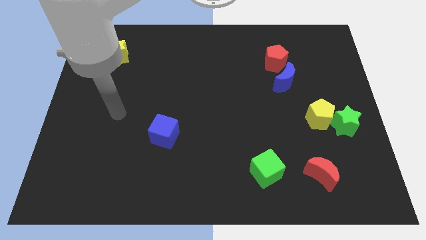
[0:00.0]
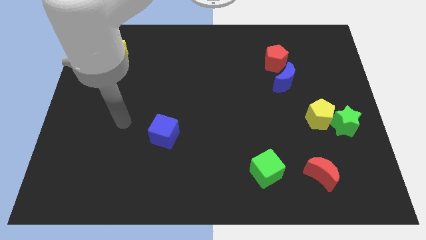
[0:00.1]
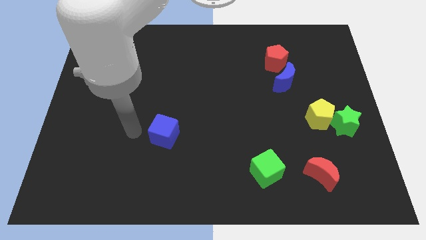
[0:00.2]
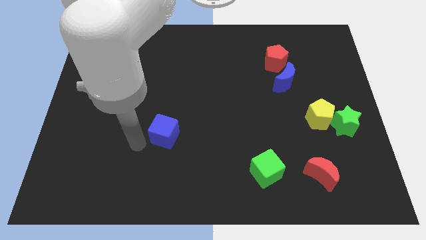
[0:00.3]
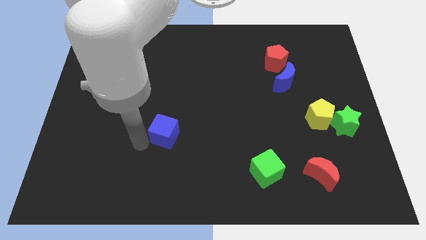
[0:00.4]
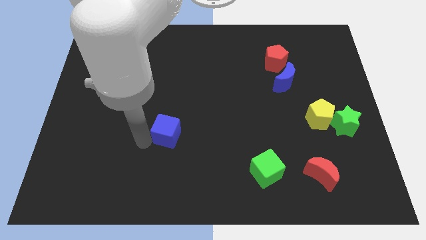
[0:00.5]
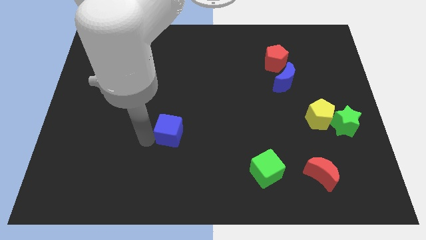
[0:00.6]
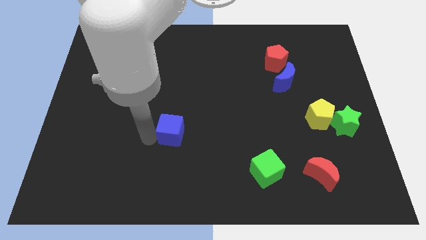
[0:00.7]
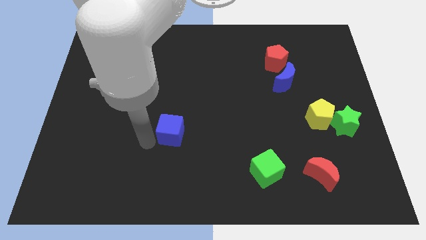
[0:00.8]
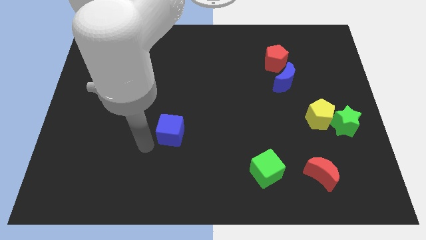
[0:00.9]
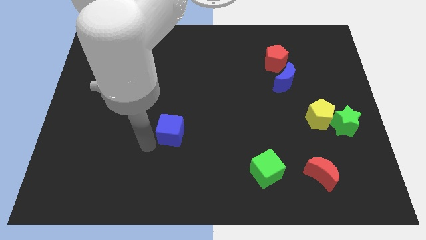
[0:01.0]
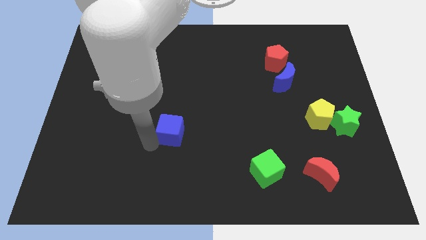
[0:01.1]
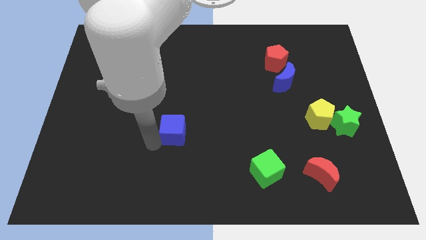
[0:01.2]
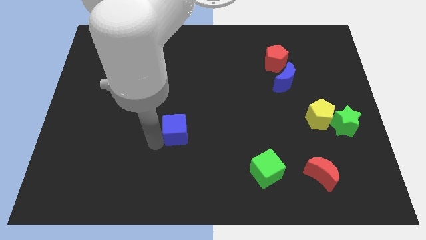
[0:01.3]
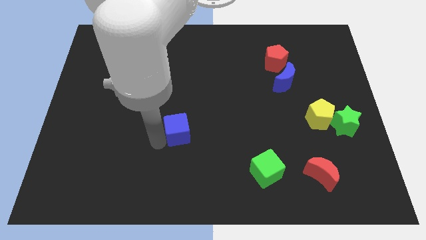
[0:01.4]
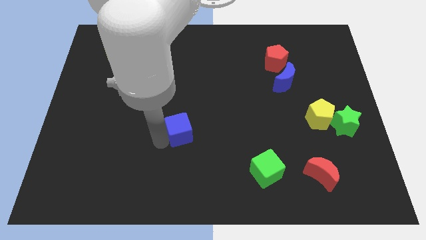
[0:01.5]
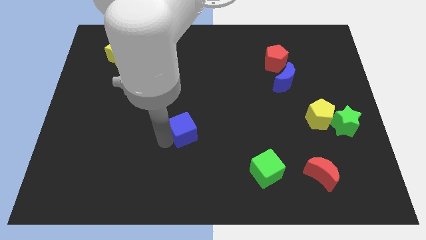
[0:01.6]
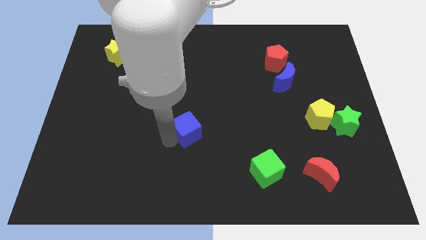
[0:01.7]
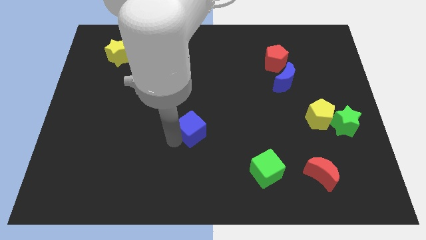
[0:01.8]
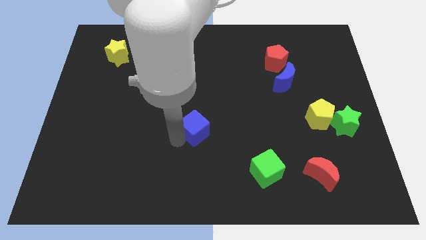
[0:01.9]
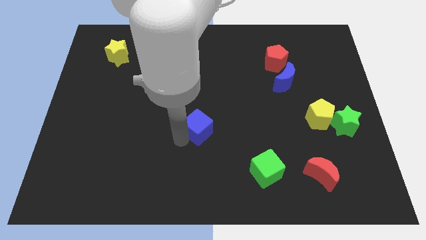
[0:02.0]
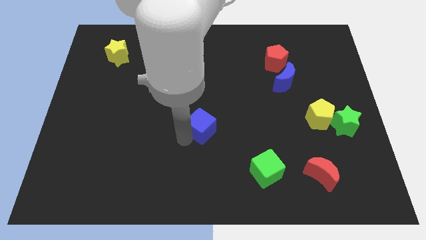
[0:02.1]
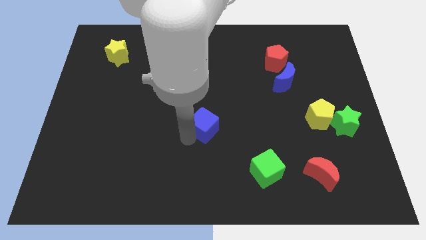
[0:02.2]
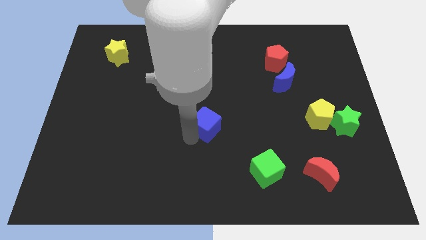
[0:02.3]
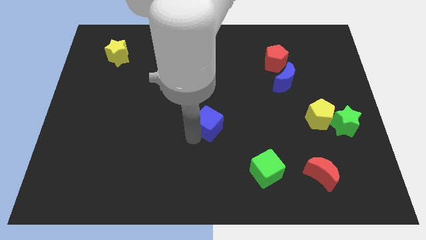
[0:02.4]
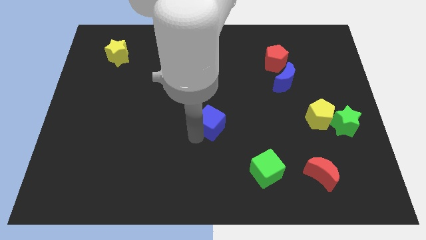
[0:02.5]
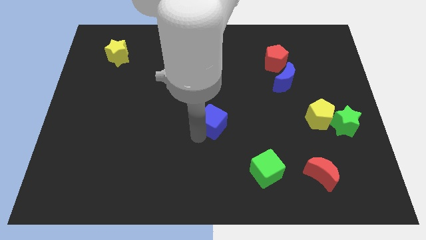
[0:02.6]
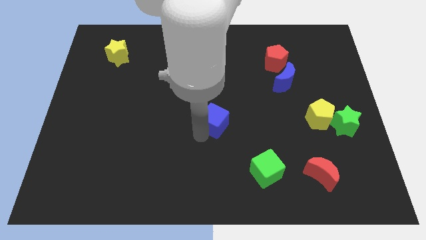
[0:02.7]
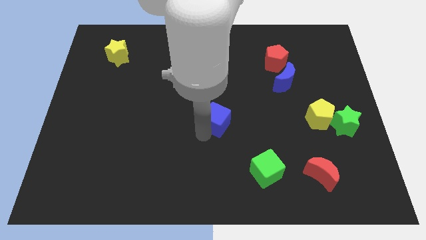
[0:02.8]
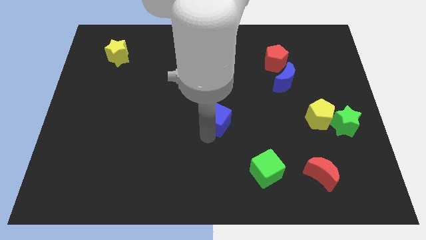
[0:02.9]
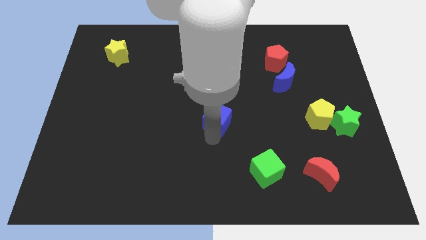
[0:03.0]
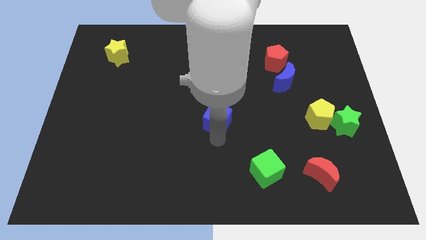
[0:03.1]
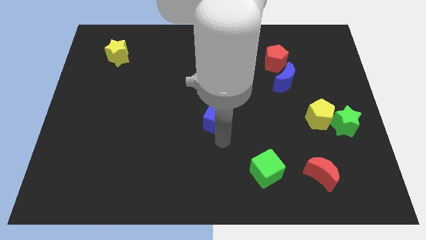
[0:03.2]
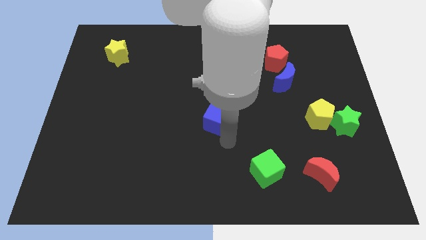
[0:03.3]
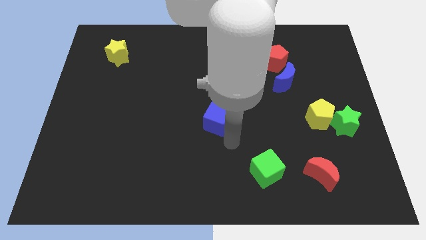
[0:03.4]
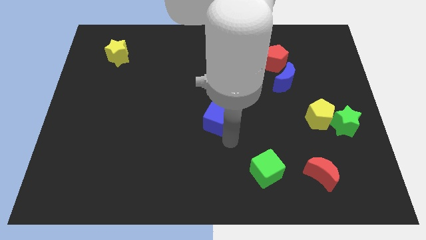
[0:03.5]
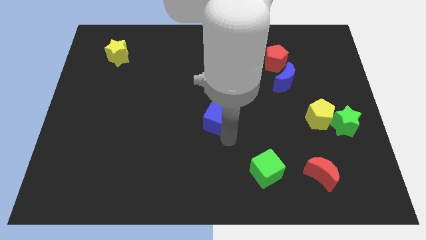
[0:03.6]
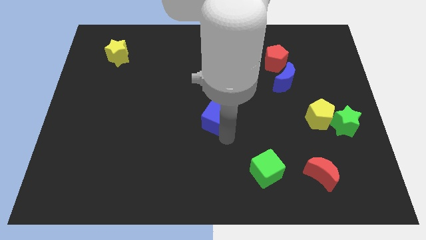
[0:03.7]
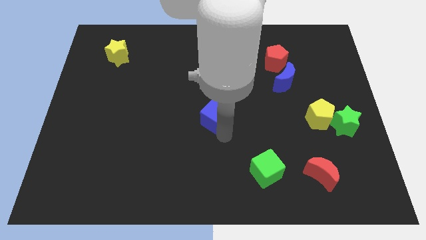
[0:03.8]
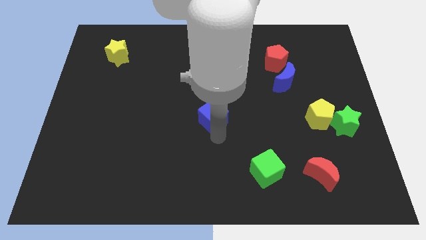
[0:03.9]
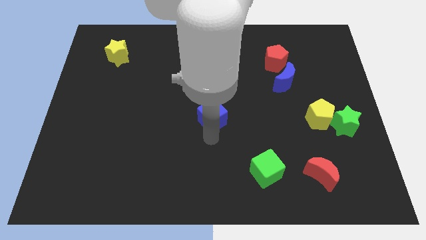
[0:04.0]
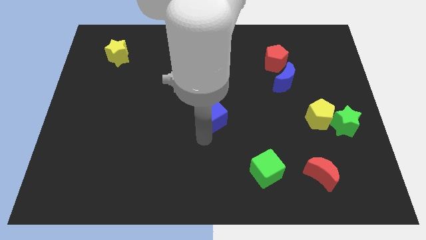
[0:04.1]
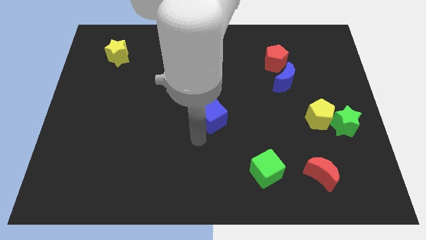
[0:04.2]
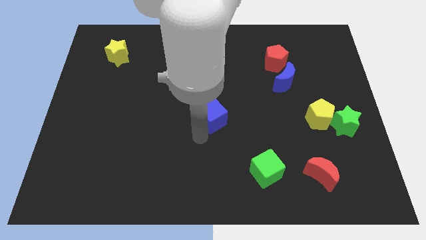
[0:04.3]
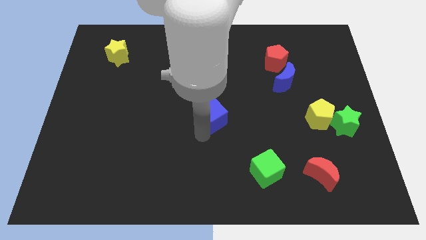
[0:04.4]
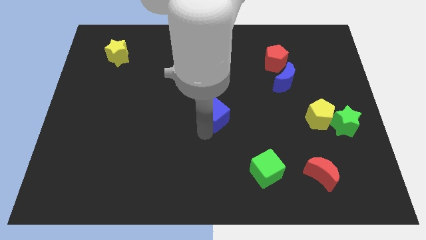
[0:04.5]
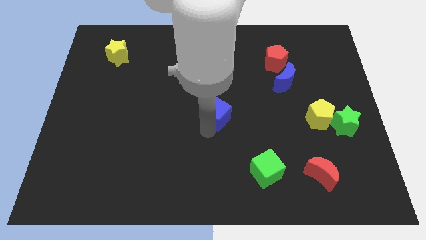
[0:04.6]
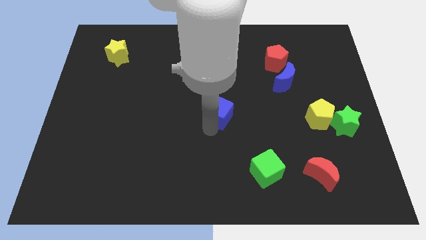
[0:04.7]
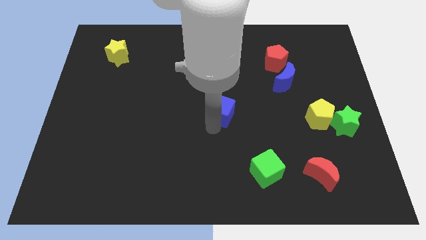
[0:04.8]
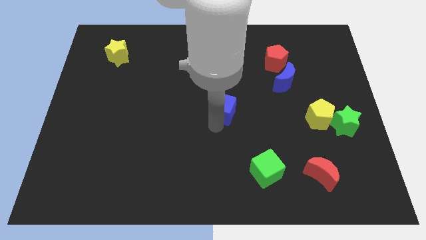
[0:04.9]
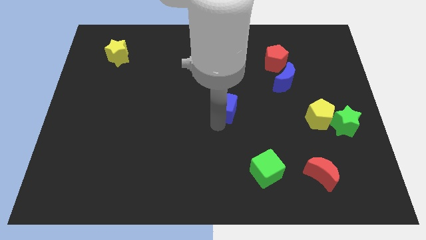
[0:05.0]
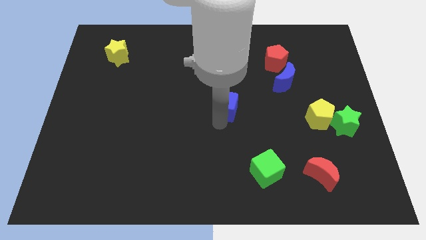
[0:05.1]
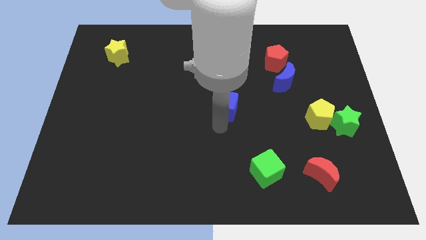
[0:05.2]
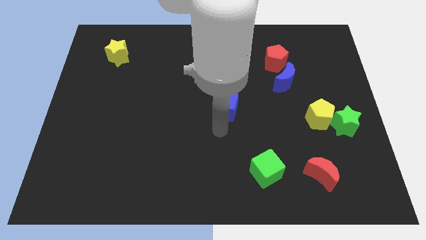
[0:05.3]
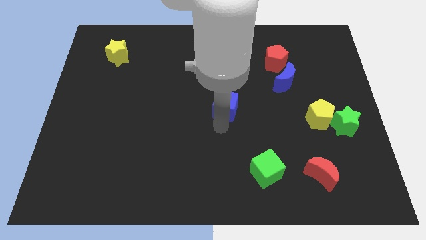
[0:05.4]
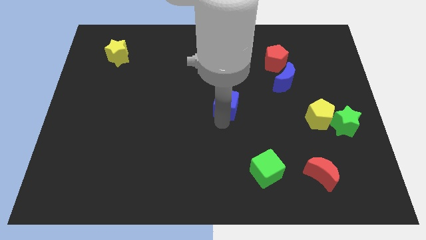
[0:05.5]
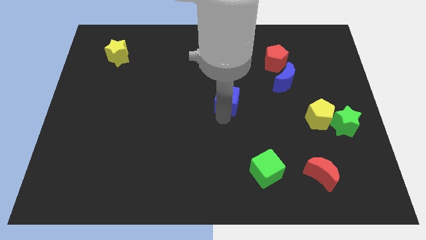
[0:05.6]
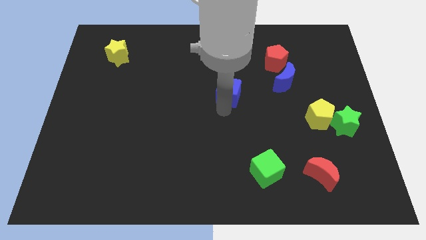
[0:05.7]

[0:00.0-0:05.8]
move the blue cube just left of the blue moon

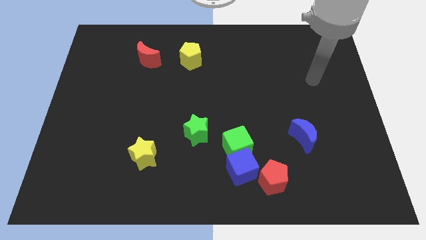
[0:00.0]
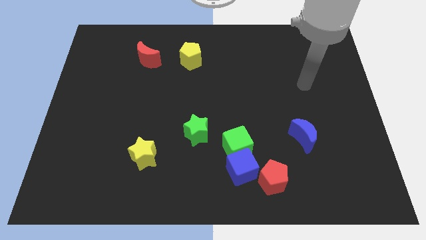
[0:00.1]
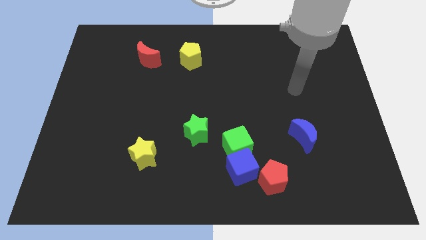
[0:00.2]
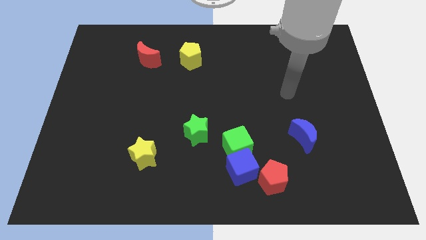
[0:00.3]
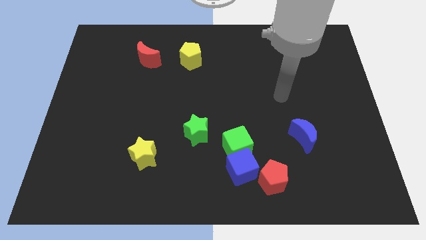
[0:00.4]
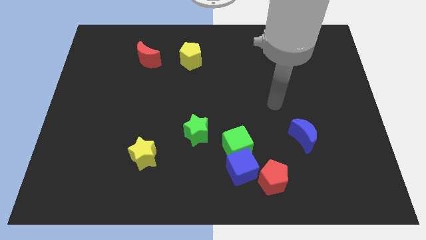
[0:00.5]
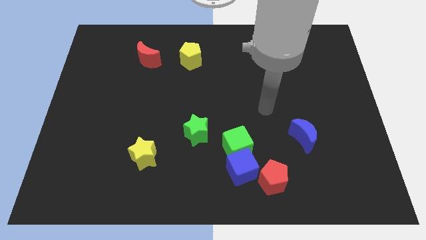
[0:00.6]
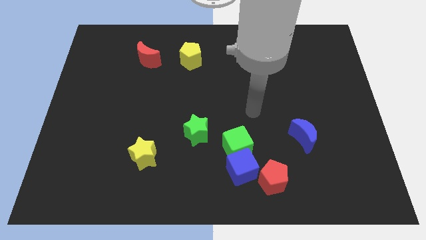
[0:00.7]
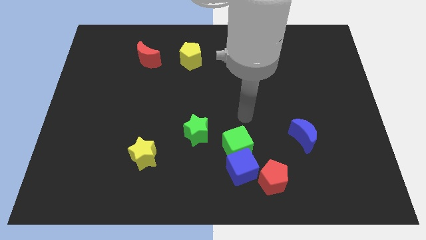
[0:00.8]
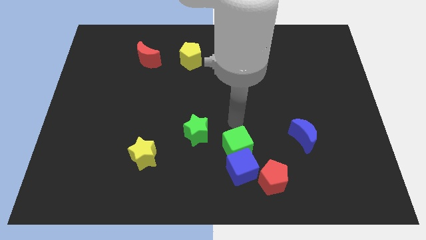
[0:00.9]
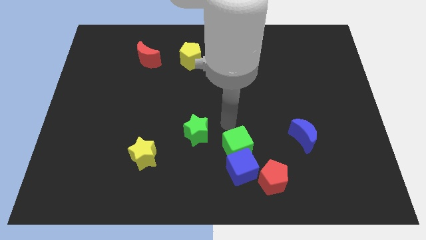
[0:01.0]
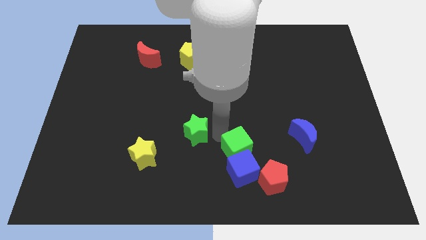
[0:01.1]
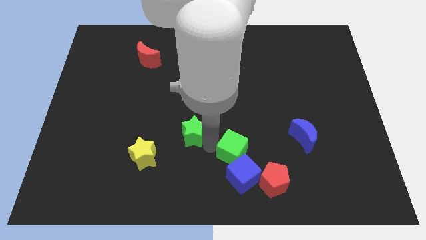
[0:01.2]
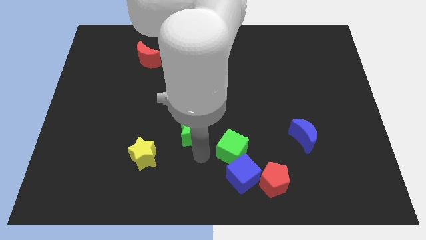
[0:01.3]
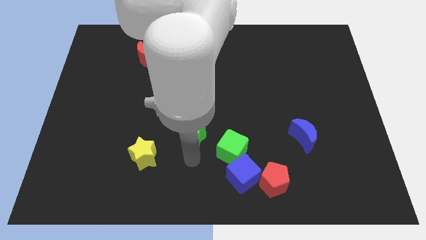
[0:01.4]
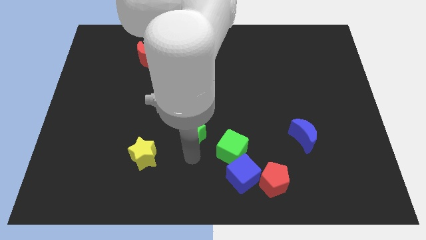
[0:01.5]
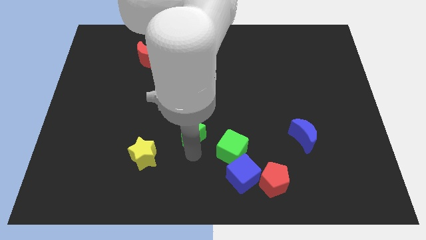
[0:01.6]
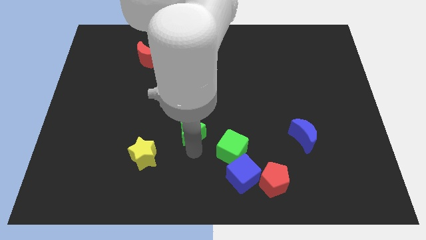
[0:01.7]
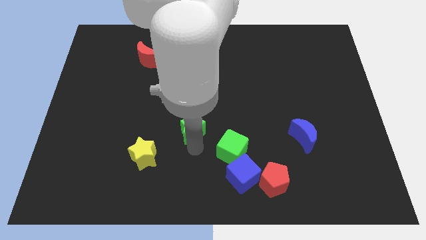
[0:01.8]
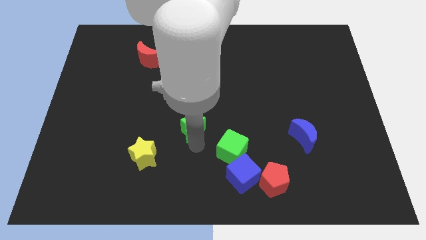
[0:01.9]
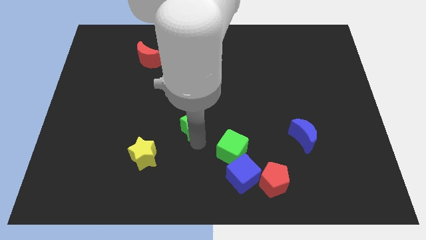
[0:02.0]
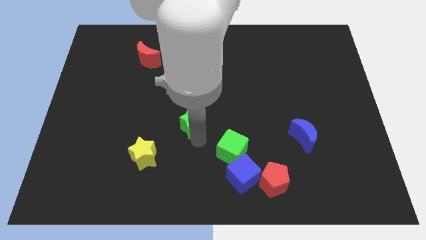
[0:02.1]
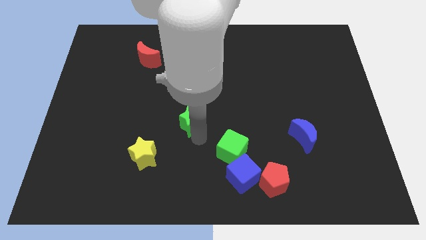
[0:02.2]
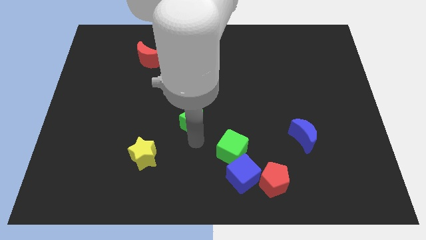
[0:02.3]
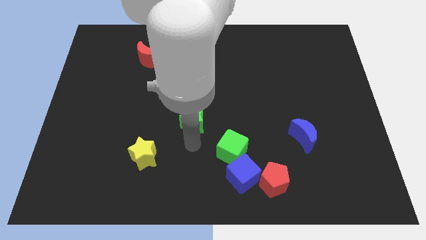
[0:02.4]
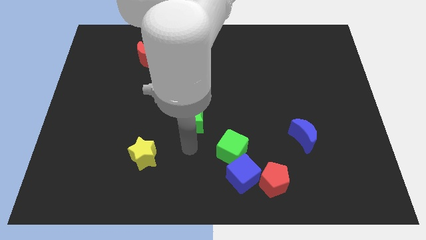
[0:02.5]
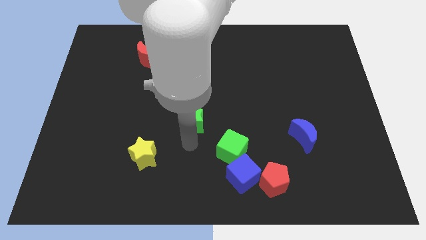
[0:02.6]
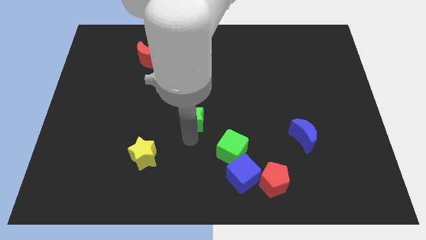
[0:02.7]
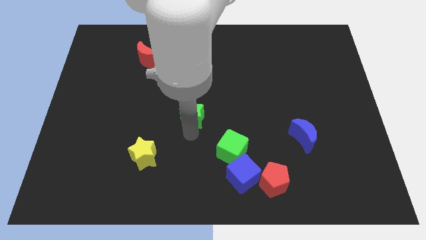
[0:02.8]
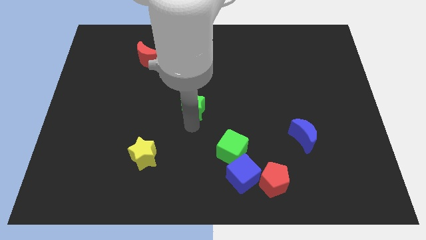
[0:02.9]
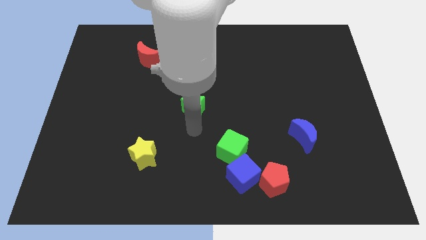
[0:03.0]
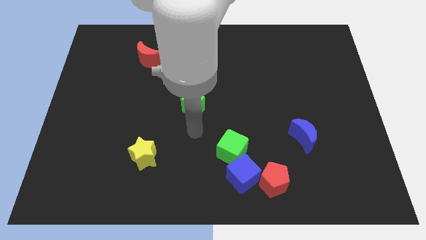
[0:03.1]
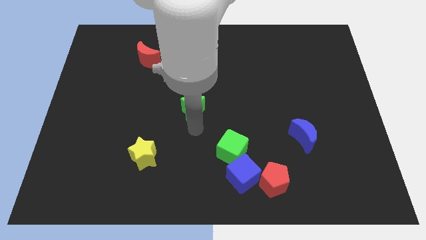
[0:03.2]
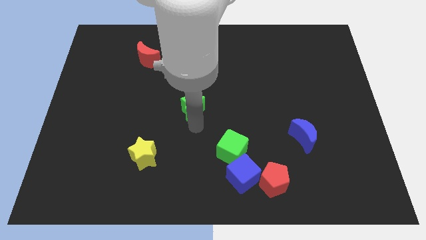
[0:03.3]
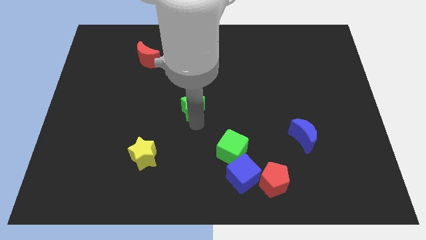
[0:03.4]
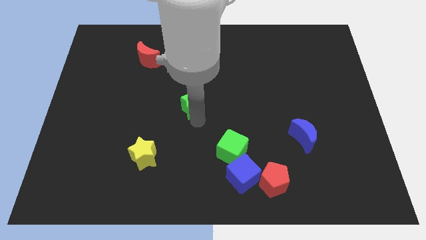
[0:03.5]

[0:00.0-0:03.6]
push the green star below the yellow pentagon
